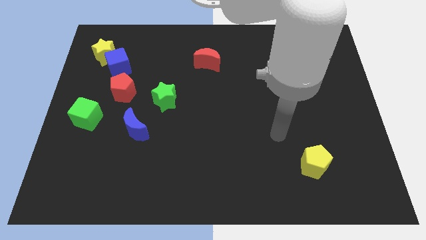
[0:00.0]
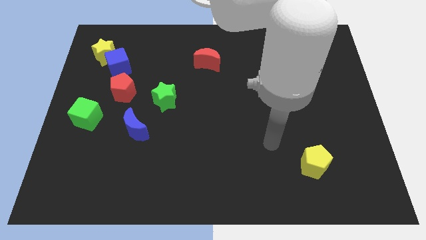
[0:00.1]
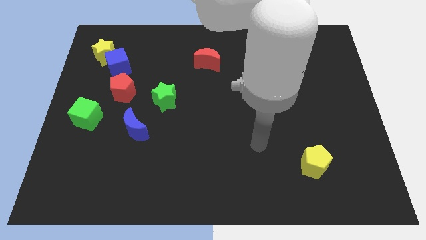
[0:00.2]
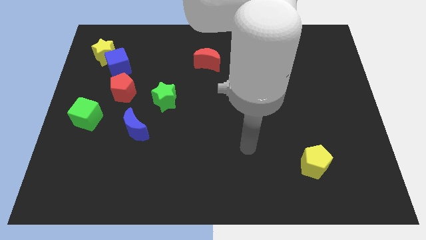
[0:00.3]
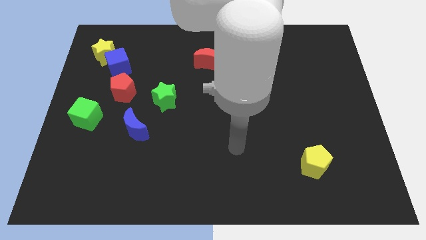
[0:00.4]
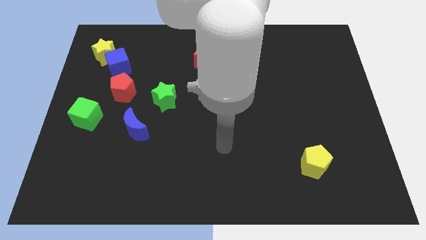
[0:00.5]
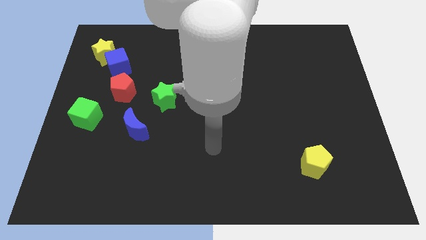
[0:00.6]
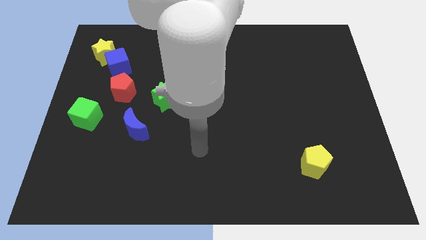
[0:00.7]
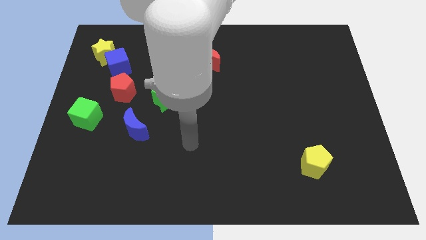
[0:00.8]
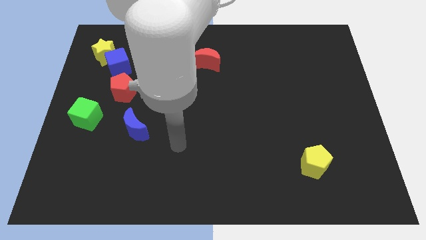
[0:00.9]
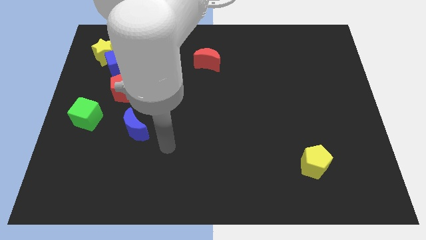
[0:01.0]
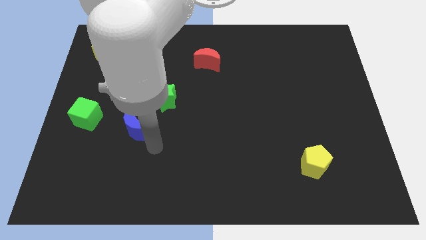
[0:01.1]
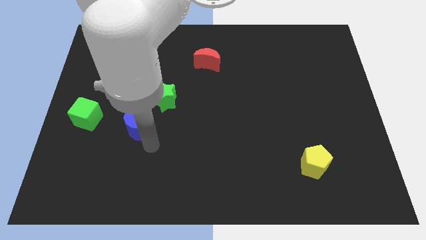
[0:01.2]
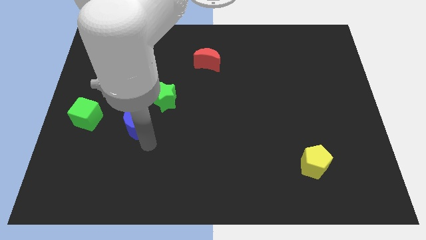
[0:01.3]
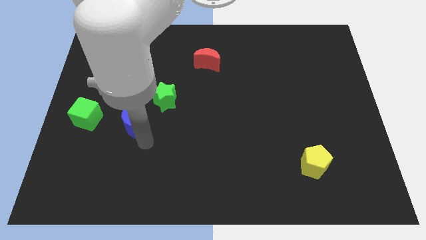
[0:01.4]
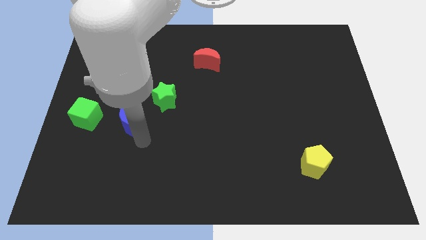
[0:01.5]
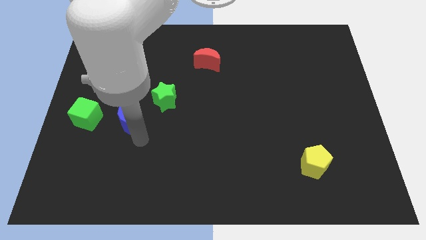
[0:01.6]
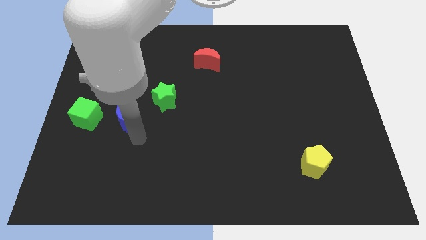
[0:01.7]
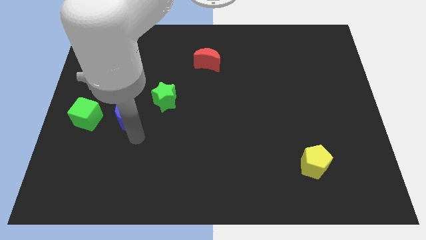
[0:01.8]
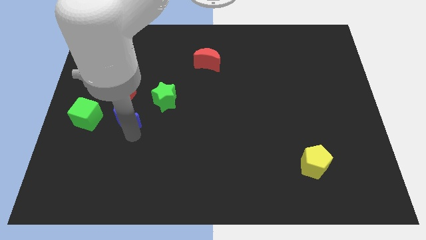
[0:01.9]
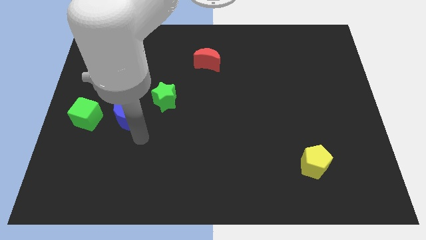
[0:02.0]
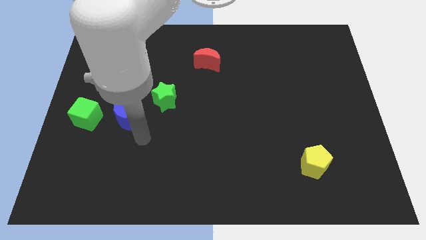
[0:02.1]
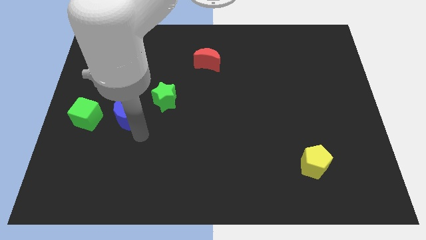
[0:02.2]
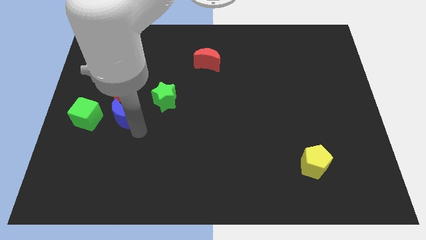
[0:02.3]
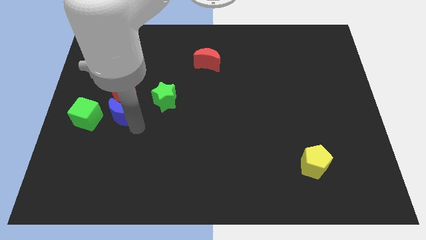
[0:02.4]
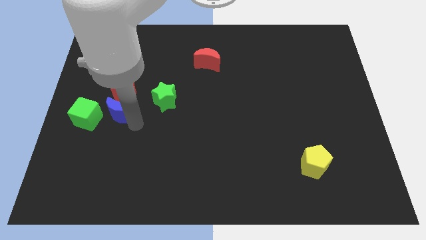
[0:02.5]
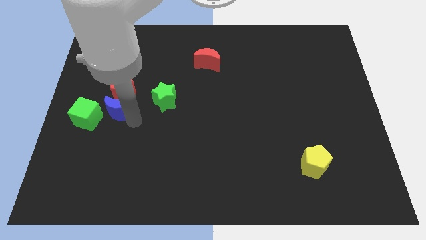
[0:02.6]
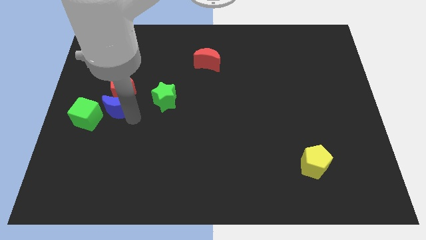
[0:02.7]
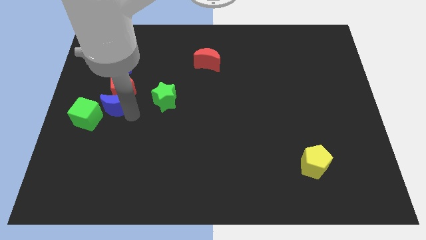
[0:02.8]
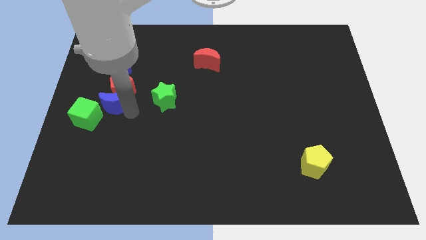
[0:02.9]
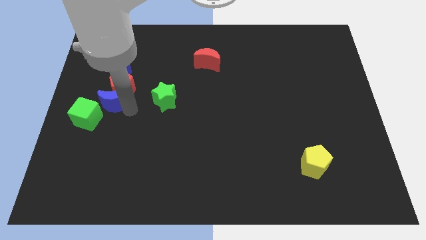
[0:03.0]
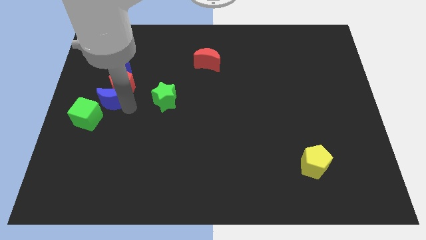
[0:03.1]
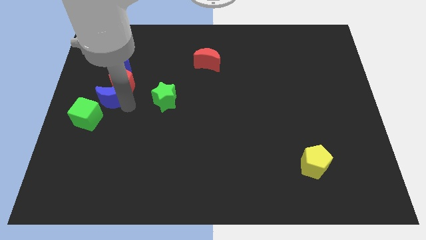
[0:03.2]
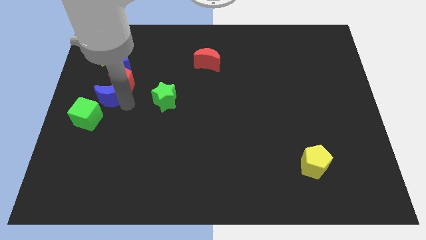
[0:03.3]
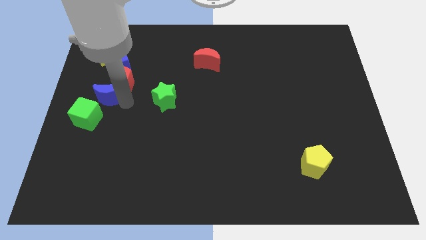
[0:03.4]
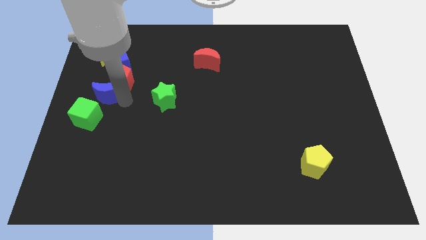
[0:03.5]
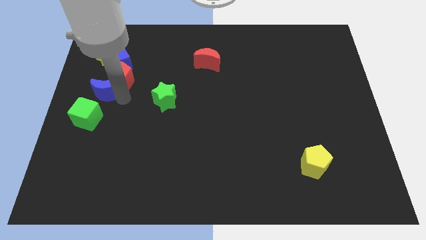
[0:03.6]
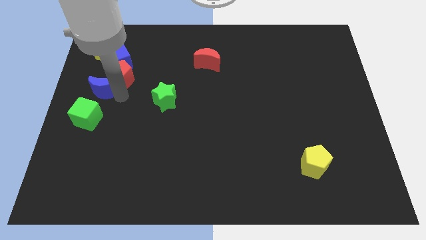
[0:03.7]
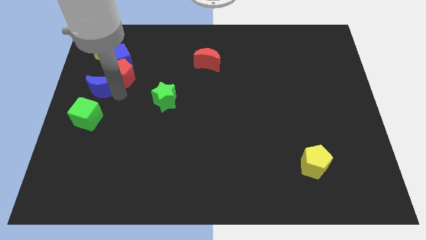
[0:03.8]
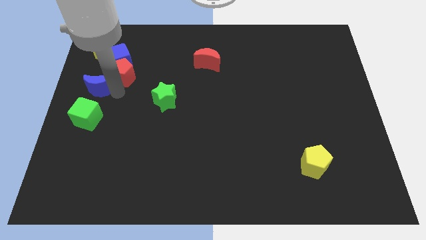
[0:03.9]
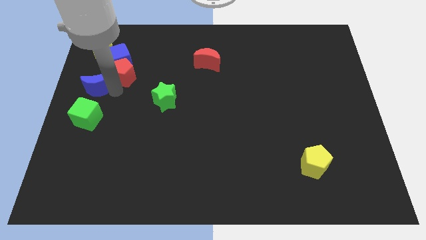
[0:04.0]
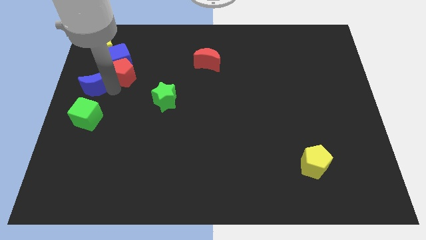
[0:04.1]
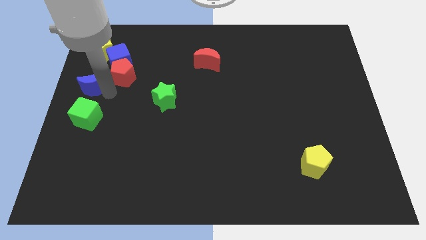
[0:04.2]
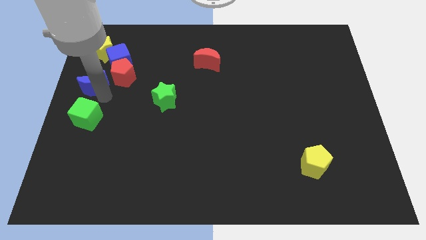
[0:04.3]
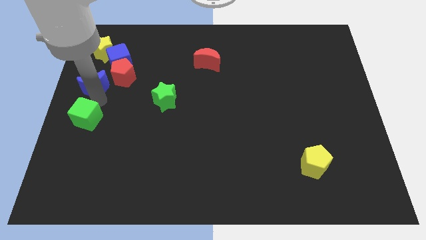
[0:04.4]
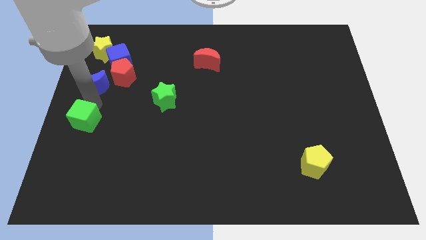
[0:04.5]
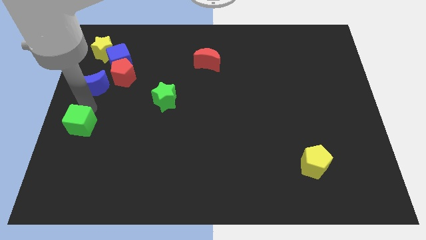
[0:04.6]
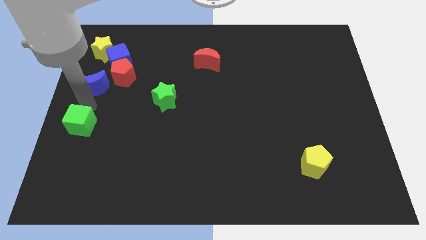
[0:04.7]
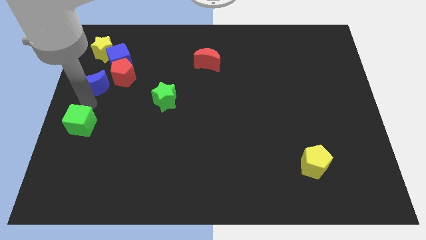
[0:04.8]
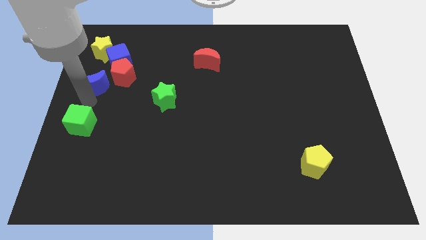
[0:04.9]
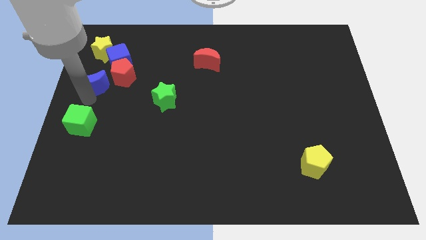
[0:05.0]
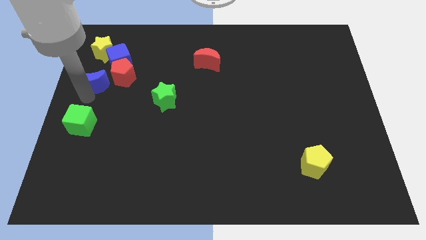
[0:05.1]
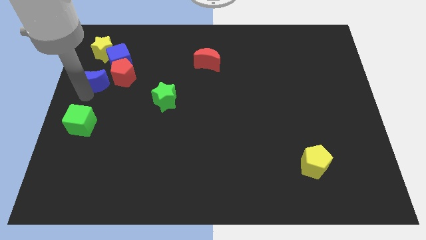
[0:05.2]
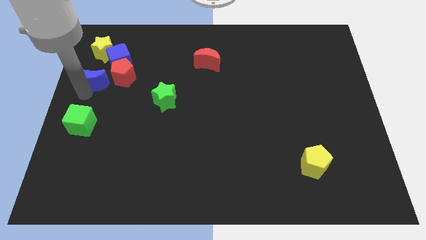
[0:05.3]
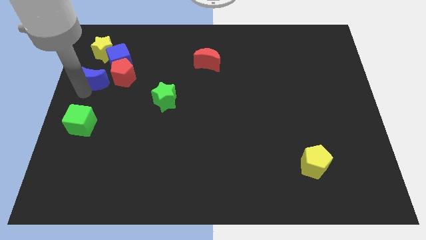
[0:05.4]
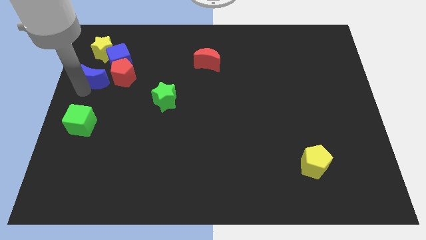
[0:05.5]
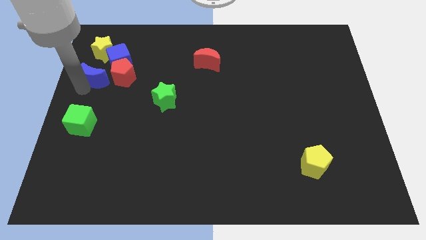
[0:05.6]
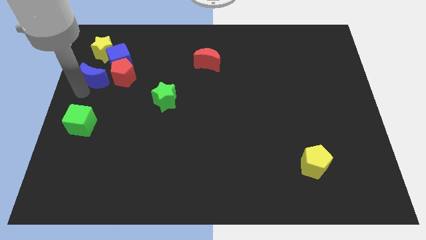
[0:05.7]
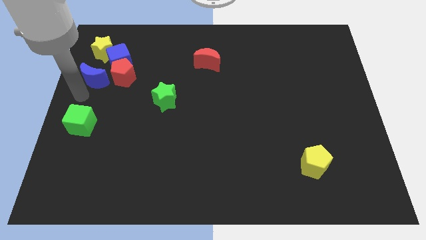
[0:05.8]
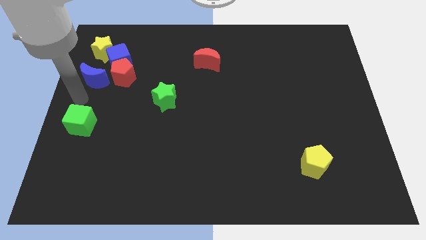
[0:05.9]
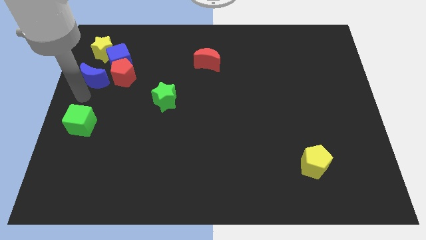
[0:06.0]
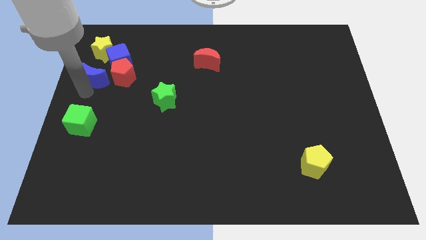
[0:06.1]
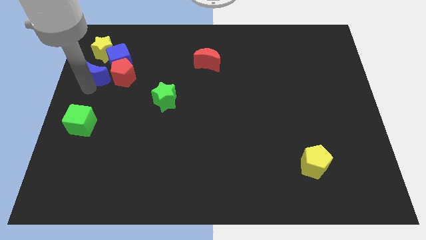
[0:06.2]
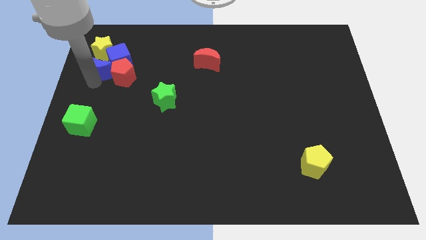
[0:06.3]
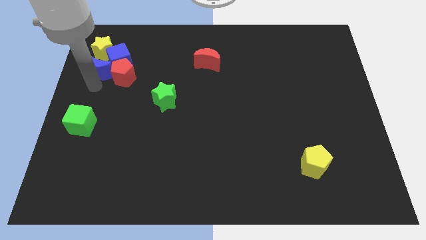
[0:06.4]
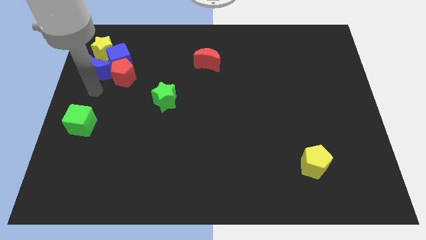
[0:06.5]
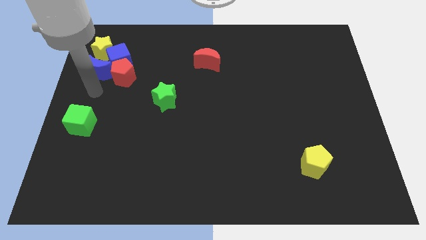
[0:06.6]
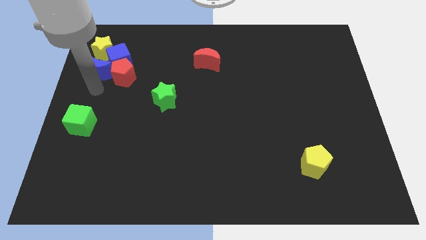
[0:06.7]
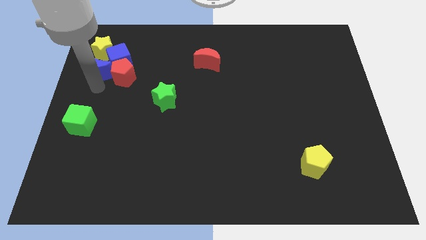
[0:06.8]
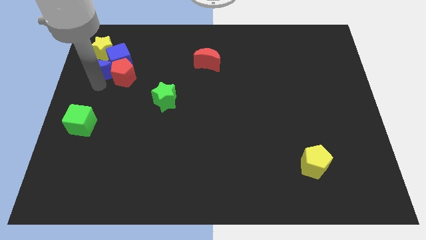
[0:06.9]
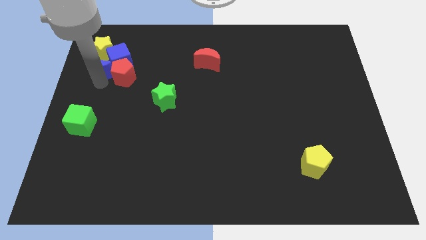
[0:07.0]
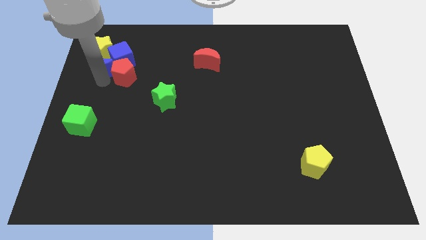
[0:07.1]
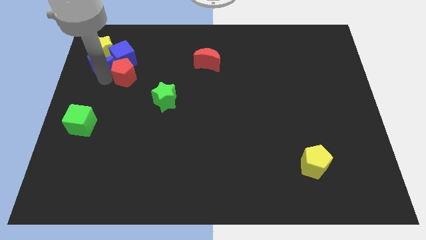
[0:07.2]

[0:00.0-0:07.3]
move the blue moon close to the yellow star

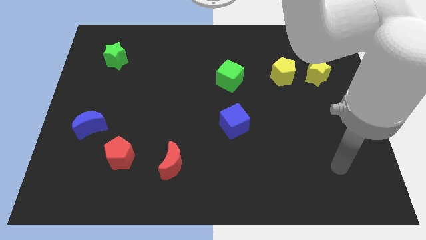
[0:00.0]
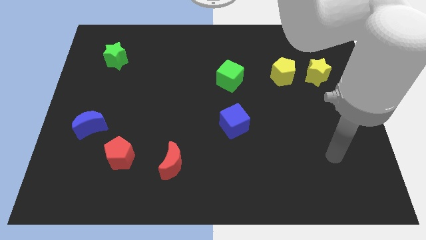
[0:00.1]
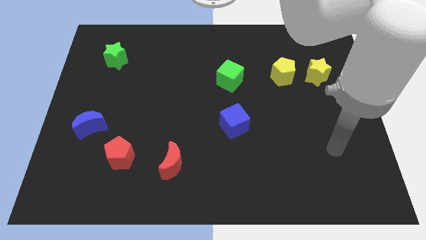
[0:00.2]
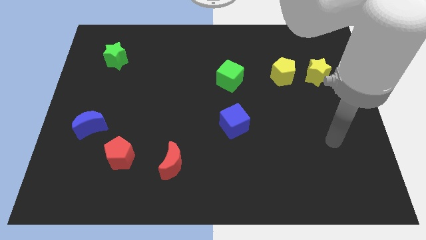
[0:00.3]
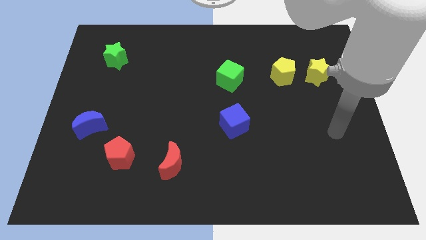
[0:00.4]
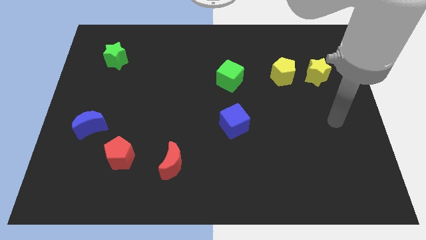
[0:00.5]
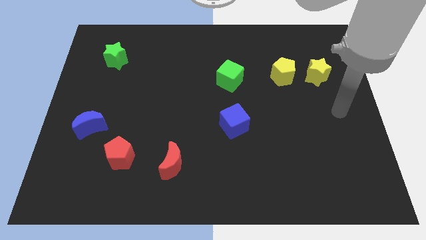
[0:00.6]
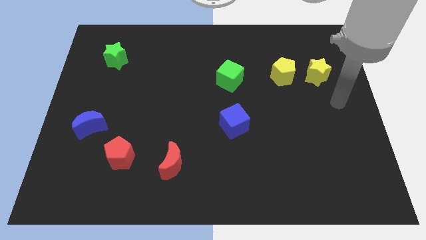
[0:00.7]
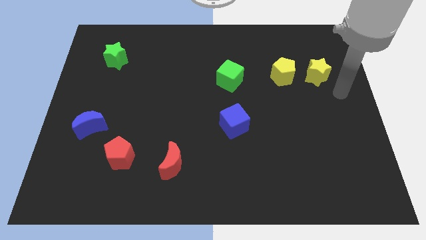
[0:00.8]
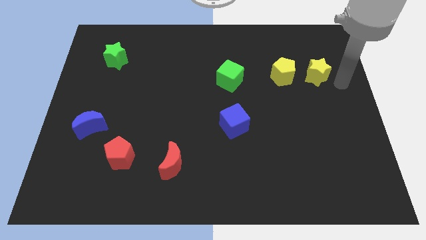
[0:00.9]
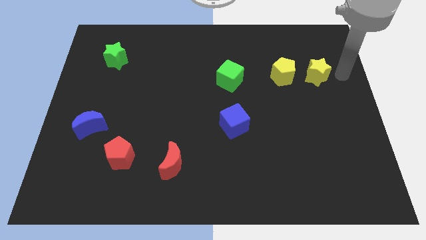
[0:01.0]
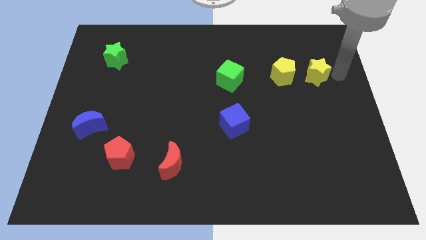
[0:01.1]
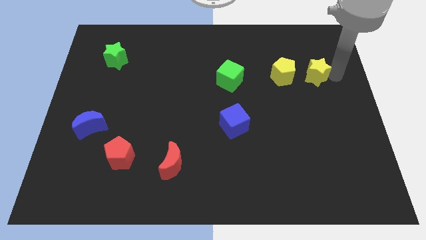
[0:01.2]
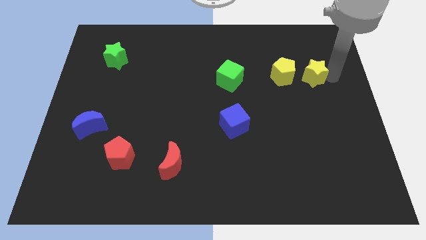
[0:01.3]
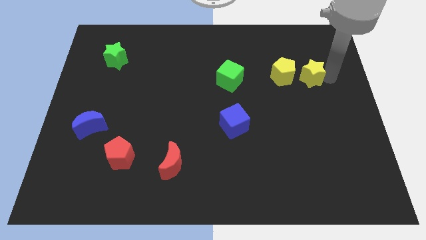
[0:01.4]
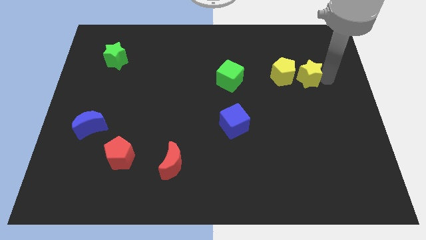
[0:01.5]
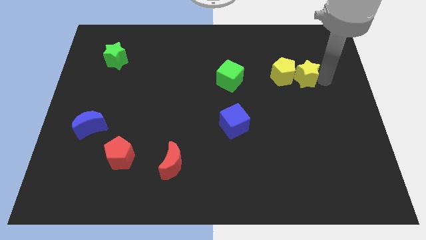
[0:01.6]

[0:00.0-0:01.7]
slide the yellow star next to the yellow pentagon
